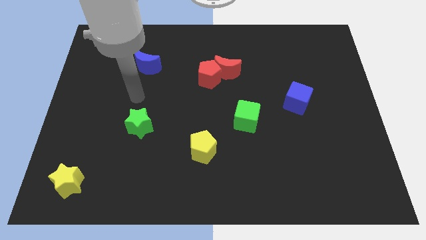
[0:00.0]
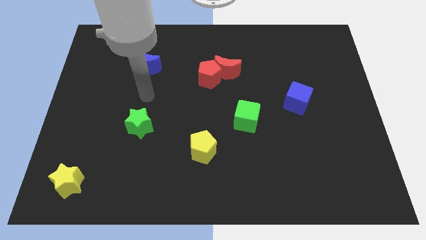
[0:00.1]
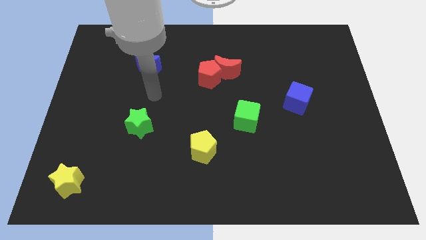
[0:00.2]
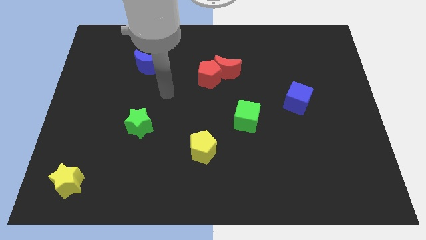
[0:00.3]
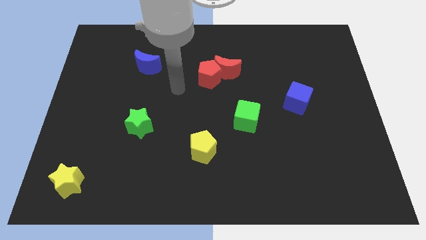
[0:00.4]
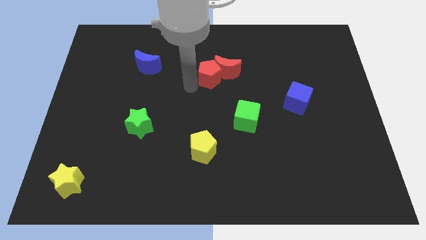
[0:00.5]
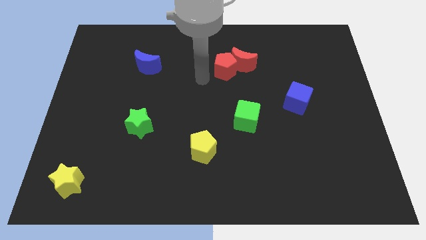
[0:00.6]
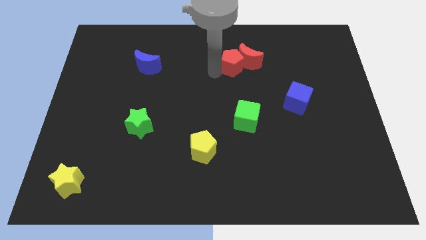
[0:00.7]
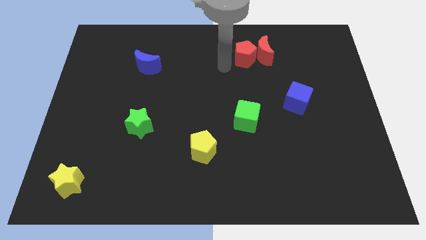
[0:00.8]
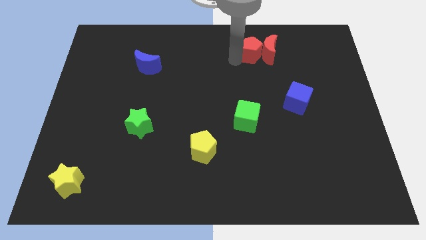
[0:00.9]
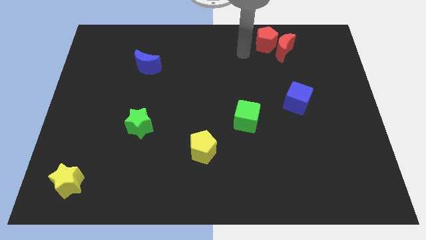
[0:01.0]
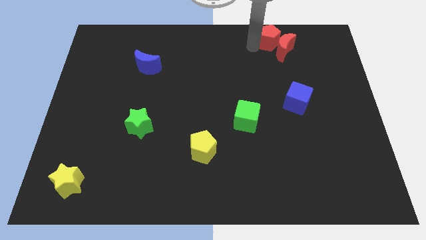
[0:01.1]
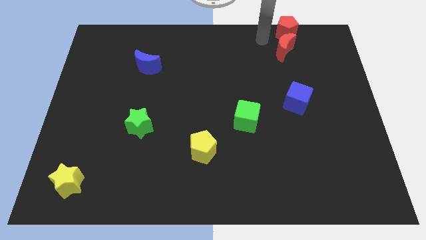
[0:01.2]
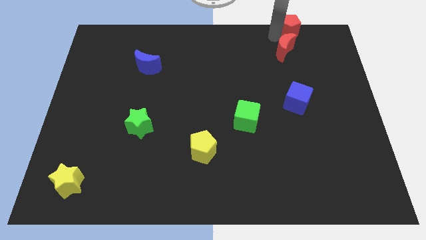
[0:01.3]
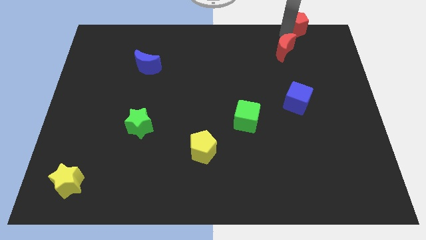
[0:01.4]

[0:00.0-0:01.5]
pull the red moon apart from the red pentagon

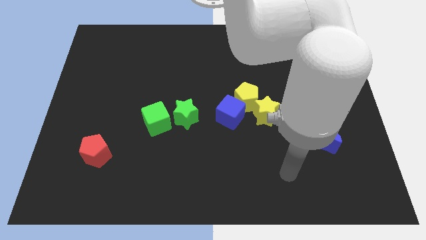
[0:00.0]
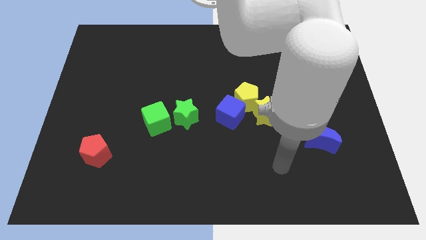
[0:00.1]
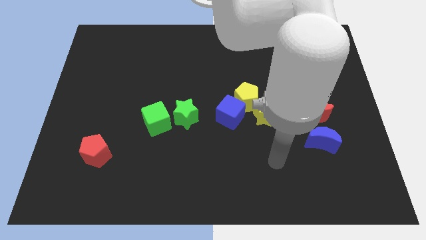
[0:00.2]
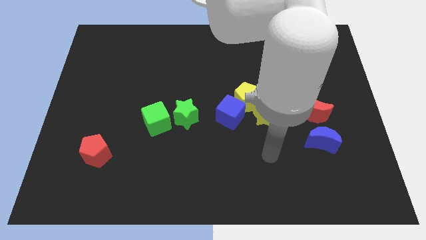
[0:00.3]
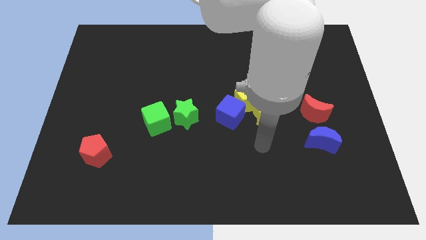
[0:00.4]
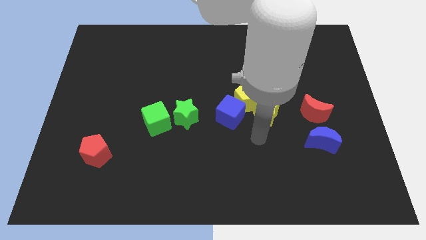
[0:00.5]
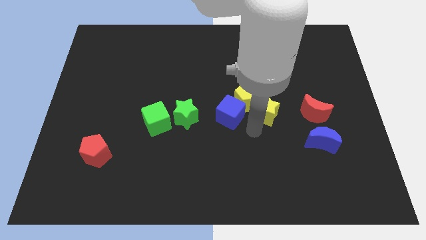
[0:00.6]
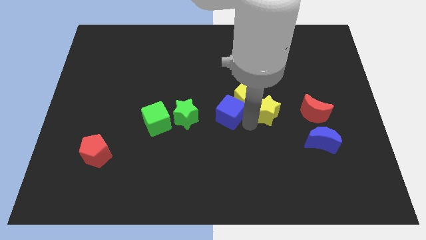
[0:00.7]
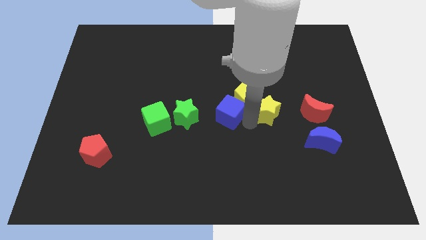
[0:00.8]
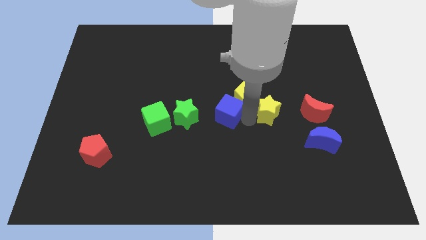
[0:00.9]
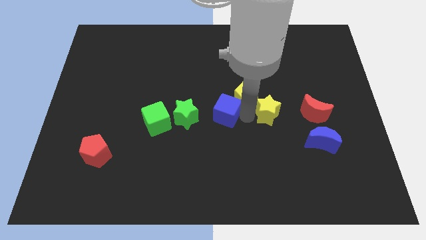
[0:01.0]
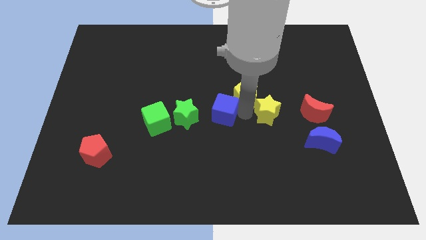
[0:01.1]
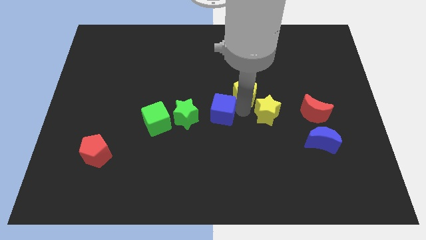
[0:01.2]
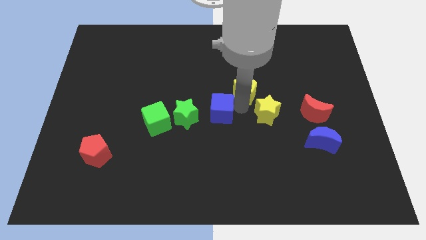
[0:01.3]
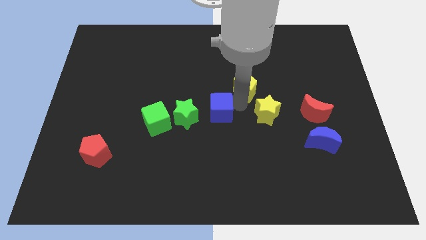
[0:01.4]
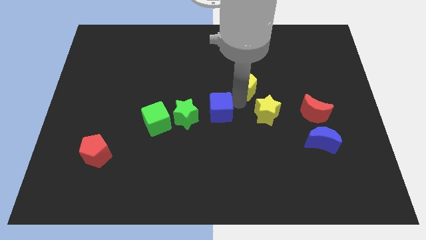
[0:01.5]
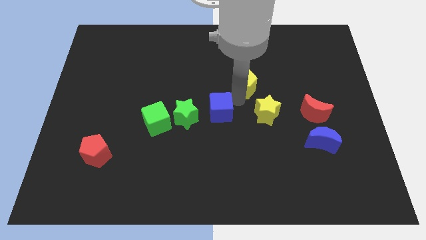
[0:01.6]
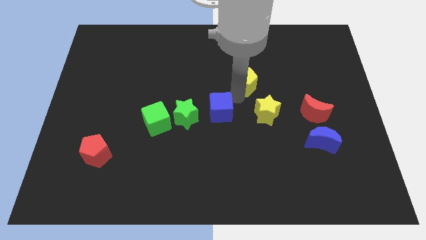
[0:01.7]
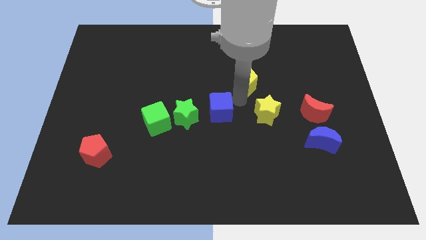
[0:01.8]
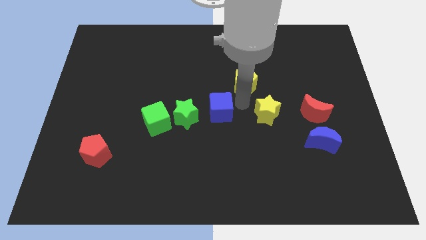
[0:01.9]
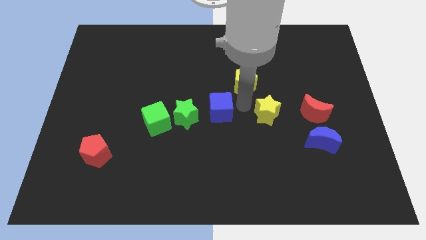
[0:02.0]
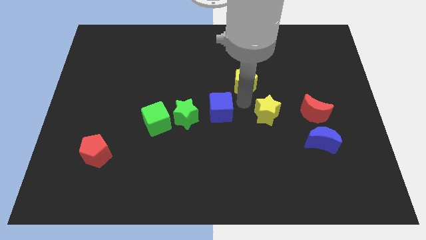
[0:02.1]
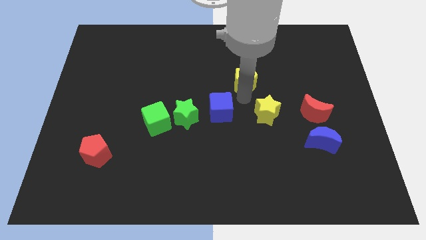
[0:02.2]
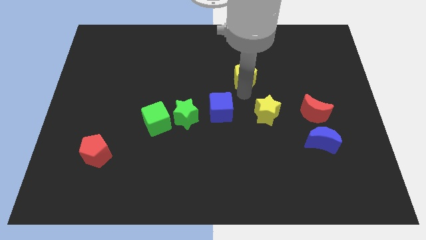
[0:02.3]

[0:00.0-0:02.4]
pull the yellow pentagon apart from the blue cube and yellow star

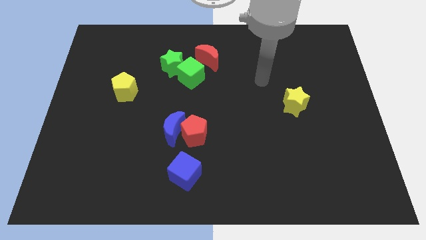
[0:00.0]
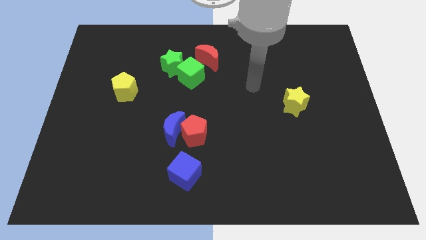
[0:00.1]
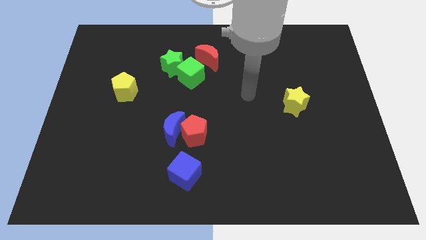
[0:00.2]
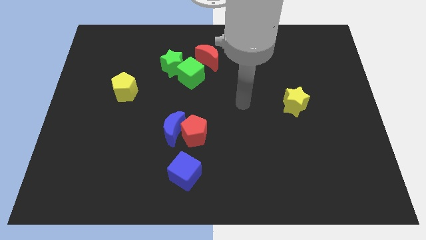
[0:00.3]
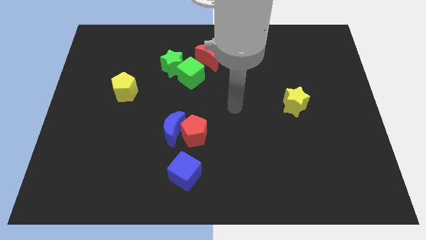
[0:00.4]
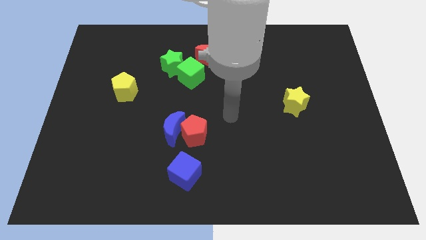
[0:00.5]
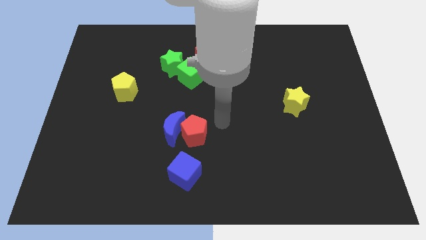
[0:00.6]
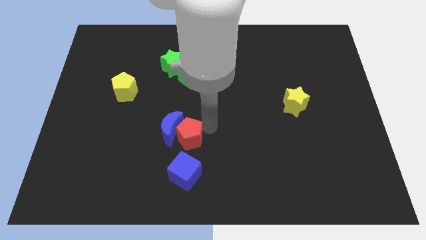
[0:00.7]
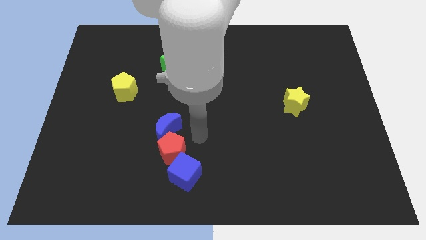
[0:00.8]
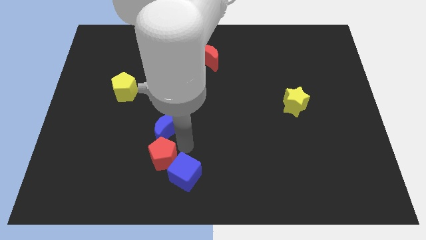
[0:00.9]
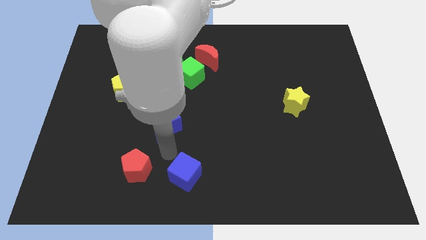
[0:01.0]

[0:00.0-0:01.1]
separate the blue moon from the red pentagon

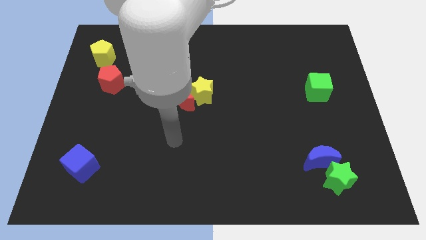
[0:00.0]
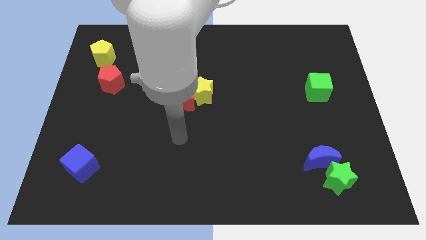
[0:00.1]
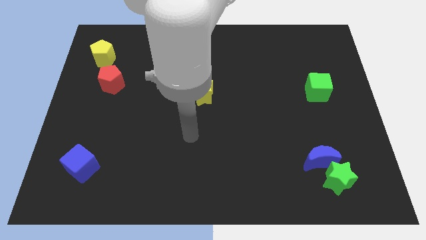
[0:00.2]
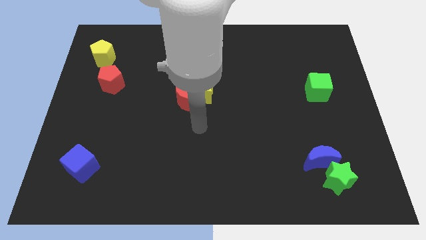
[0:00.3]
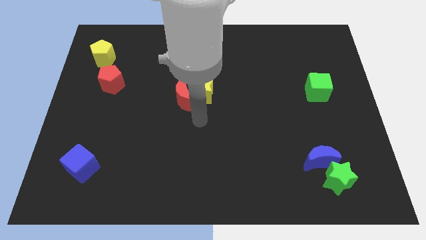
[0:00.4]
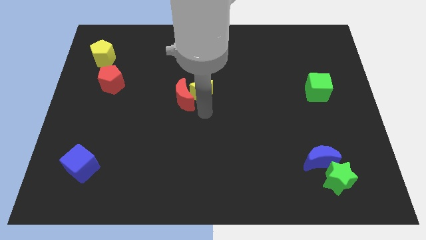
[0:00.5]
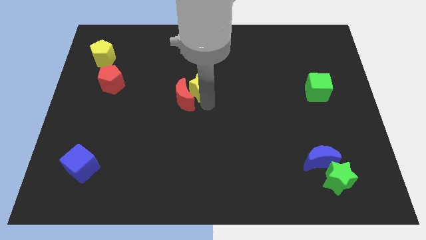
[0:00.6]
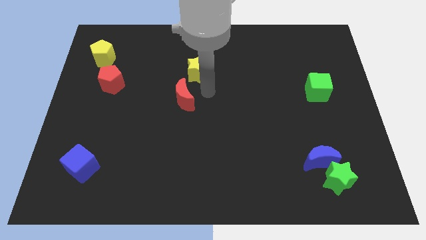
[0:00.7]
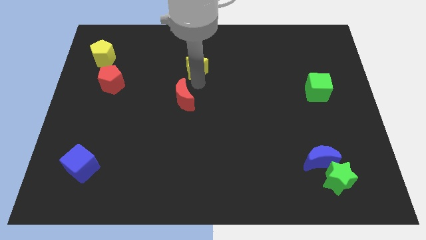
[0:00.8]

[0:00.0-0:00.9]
move the red moon away from the yellow star

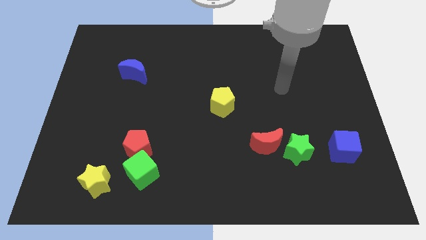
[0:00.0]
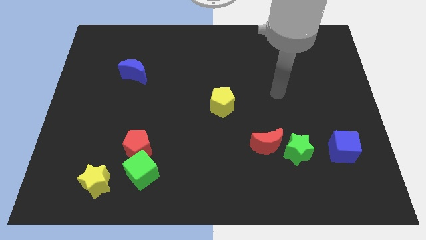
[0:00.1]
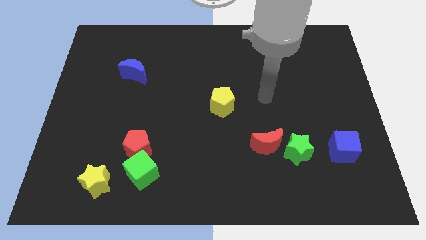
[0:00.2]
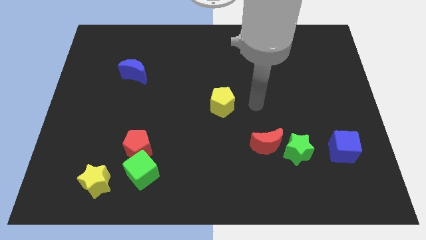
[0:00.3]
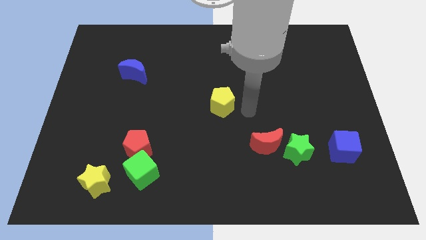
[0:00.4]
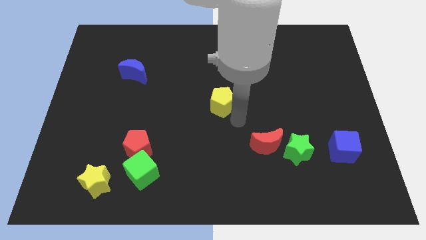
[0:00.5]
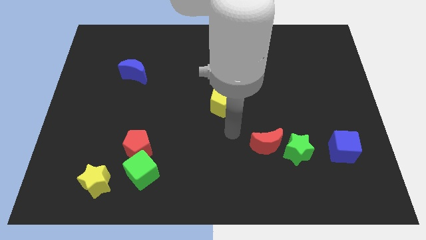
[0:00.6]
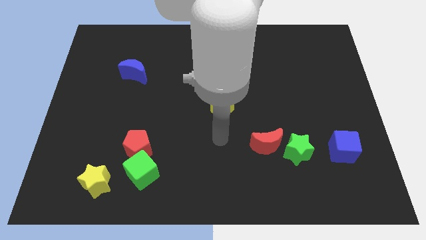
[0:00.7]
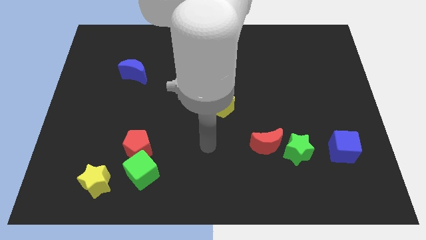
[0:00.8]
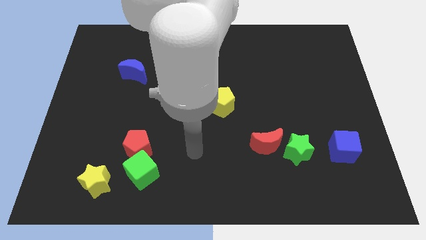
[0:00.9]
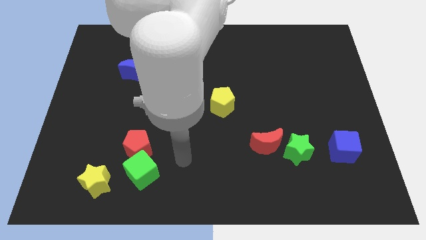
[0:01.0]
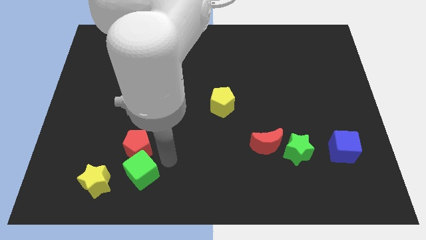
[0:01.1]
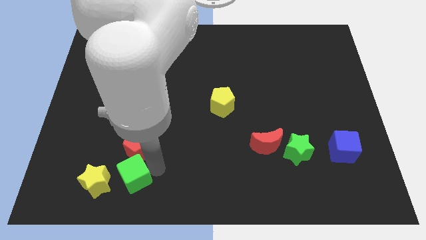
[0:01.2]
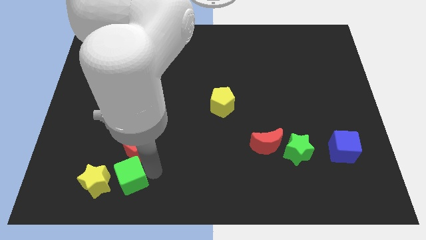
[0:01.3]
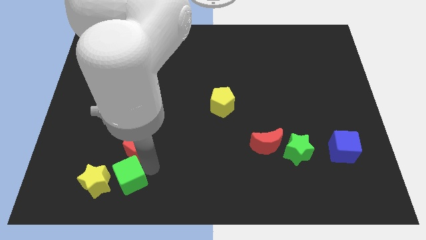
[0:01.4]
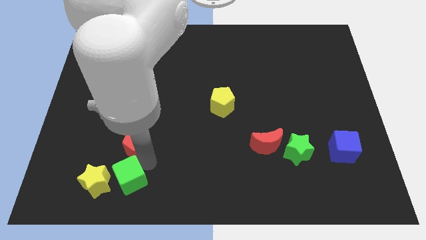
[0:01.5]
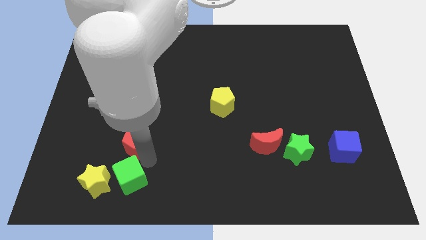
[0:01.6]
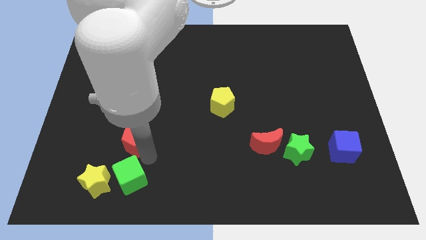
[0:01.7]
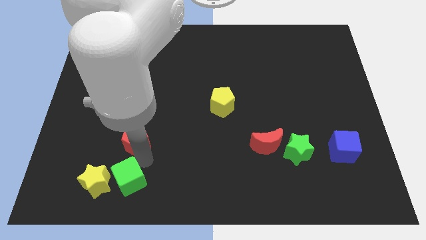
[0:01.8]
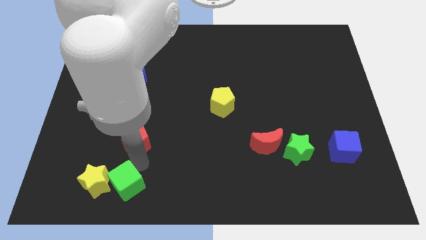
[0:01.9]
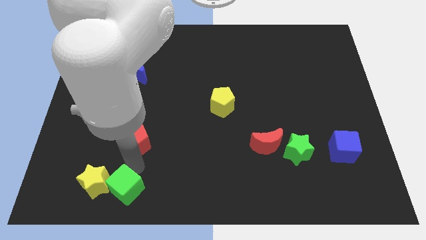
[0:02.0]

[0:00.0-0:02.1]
pull the red pentagon apart from the green cube

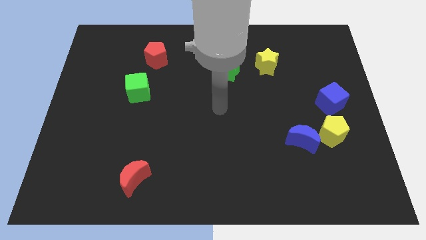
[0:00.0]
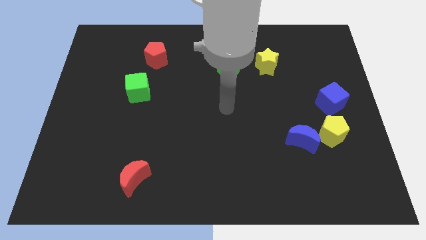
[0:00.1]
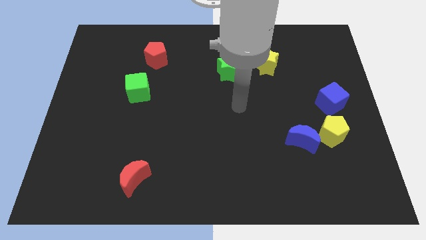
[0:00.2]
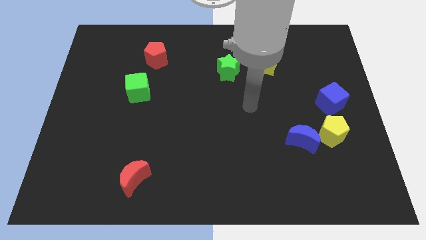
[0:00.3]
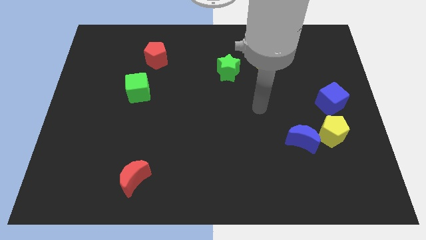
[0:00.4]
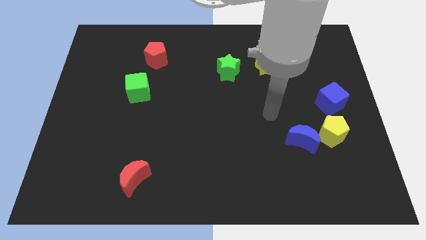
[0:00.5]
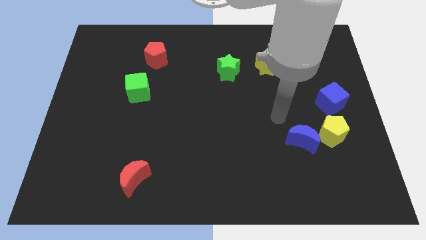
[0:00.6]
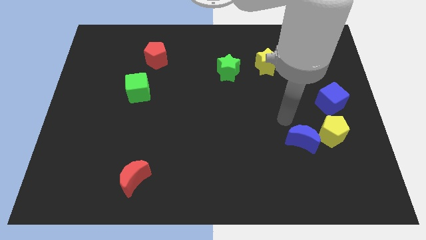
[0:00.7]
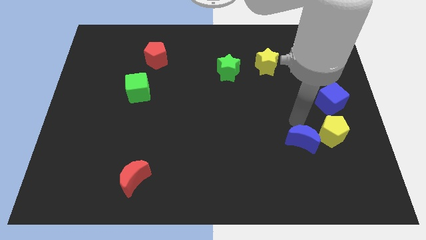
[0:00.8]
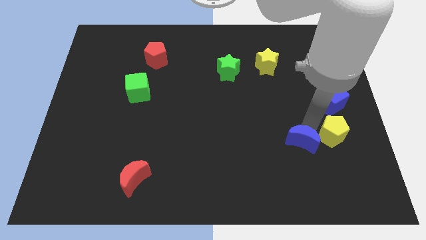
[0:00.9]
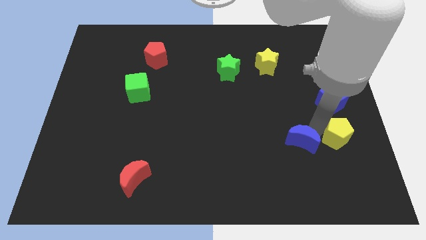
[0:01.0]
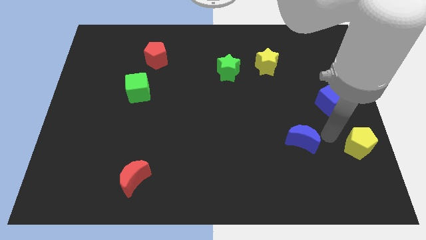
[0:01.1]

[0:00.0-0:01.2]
move the blue moon away from the yellow pentagon

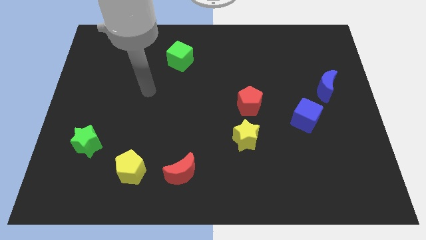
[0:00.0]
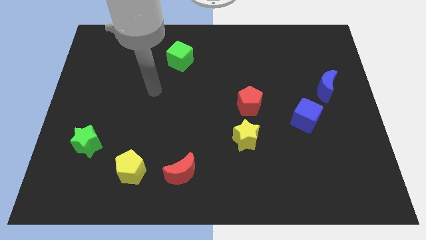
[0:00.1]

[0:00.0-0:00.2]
pull the red pentagon apart from the yellow star
